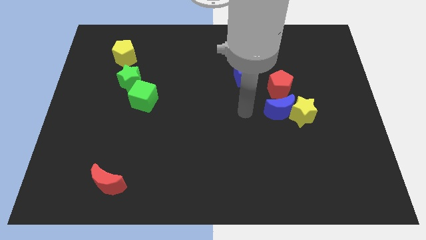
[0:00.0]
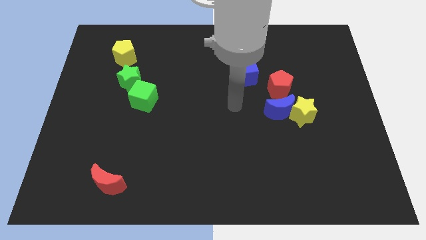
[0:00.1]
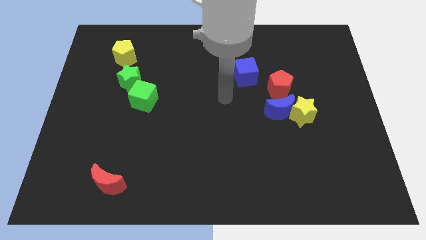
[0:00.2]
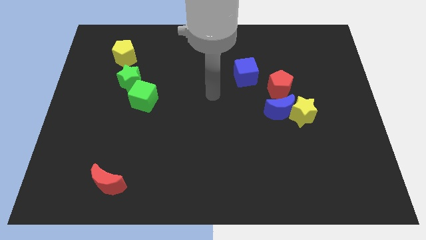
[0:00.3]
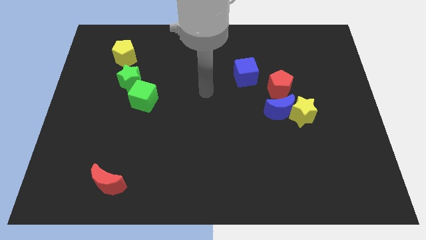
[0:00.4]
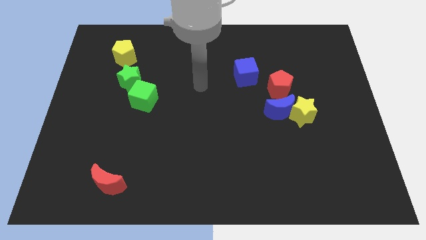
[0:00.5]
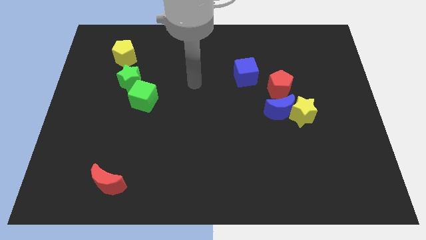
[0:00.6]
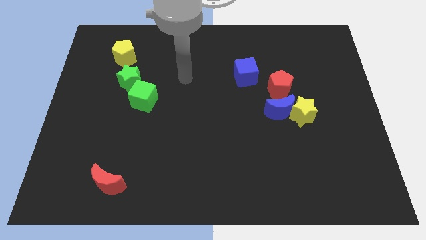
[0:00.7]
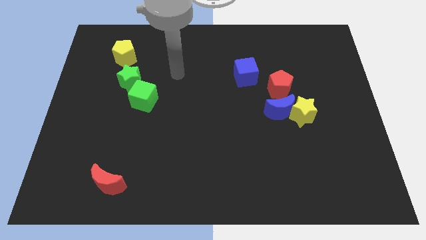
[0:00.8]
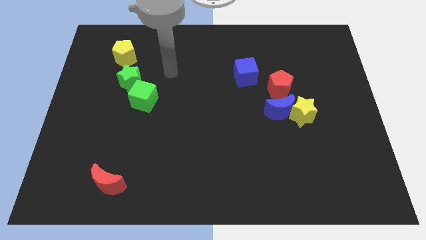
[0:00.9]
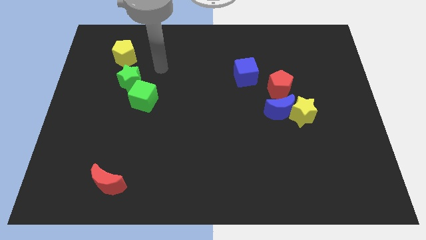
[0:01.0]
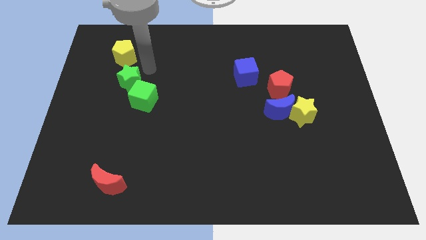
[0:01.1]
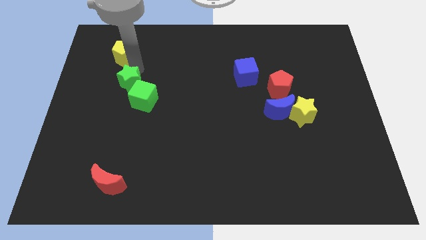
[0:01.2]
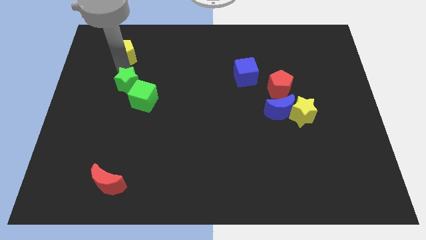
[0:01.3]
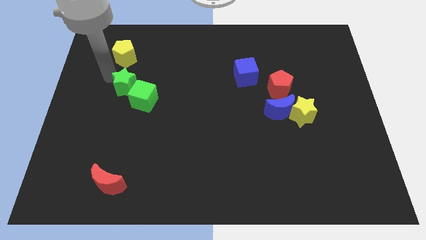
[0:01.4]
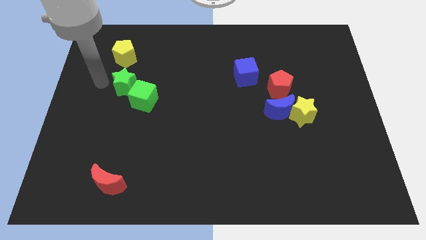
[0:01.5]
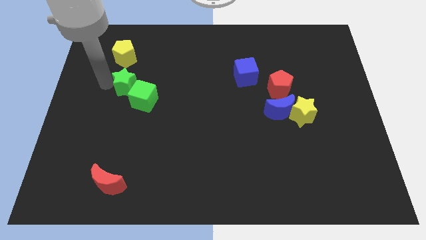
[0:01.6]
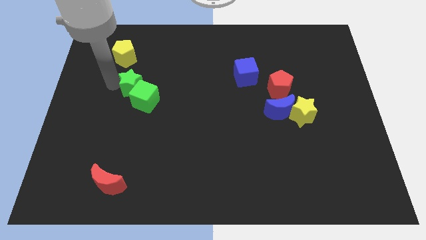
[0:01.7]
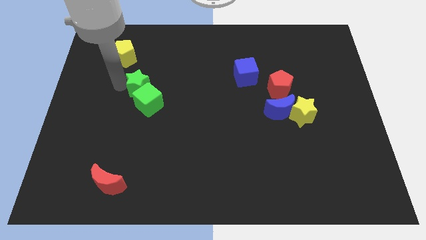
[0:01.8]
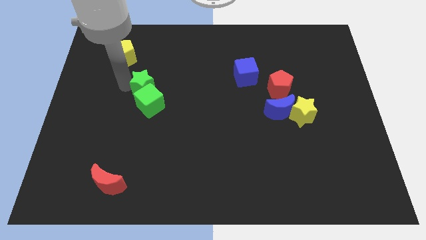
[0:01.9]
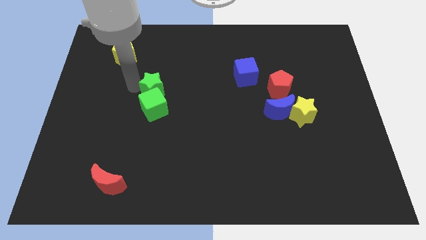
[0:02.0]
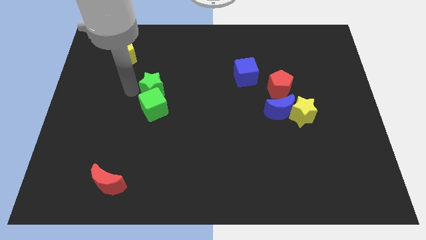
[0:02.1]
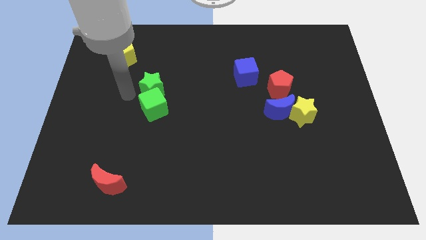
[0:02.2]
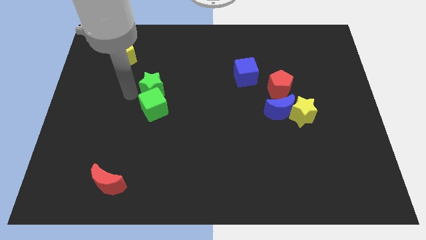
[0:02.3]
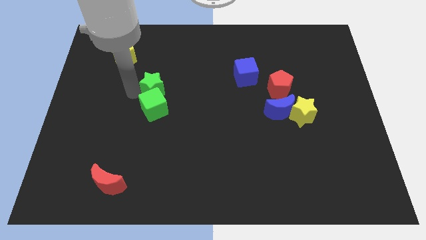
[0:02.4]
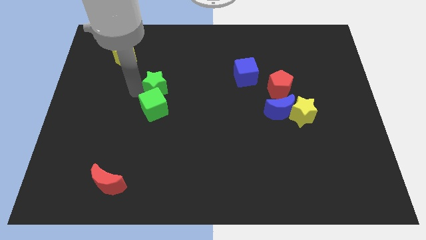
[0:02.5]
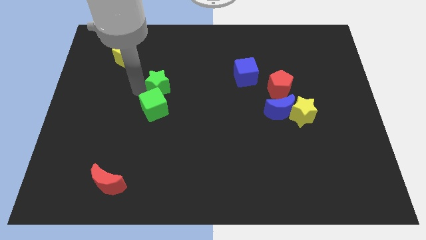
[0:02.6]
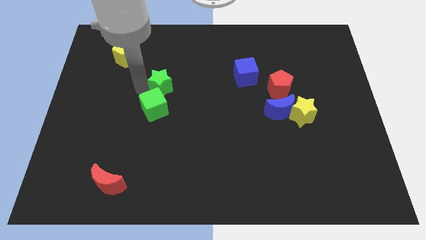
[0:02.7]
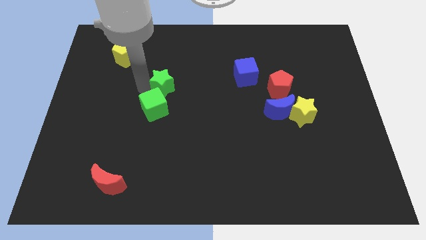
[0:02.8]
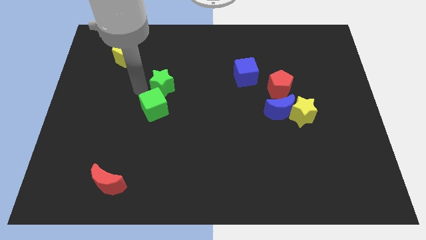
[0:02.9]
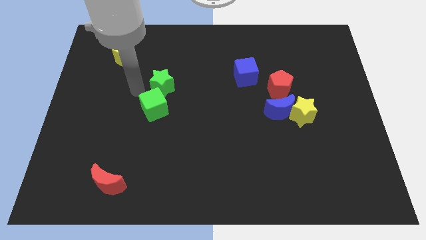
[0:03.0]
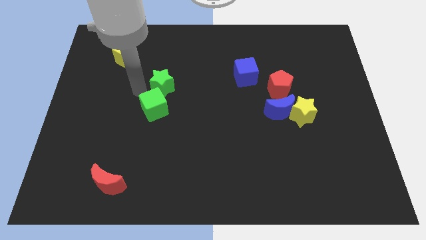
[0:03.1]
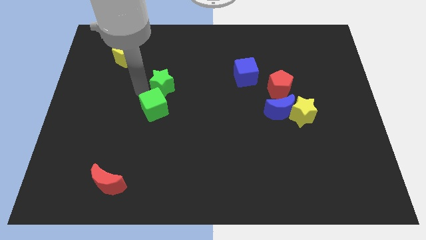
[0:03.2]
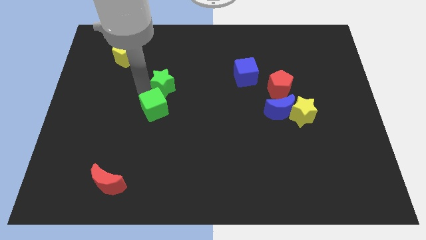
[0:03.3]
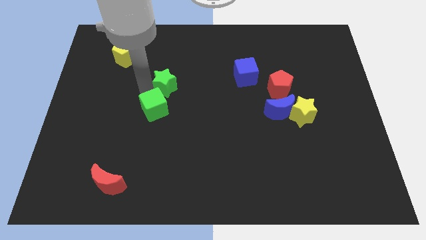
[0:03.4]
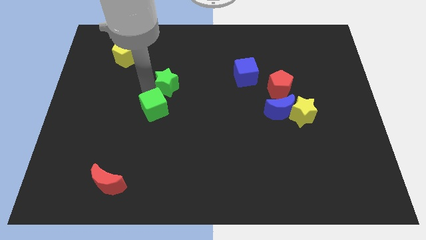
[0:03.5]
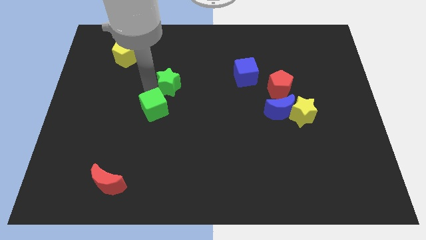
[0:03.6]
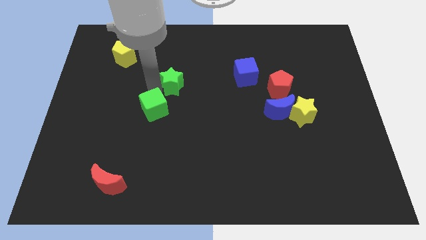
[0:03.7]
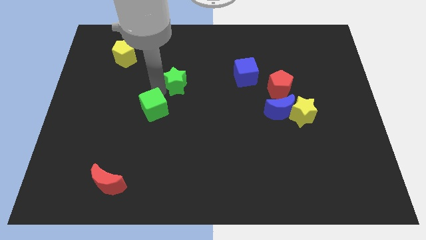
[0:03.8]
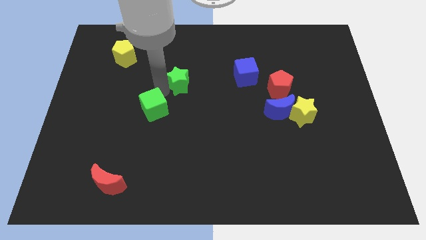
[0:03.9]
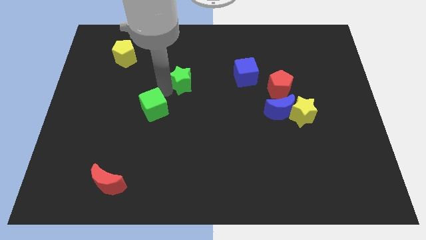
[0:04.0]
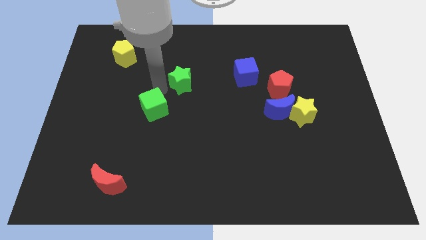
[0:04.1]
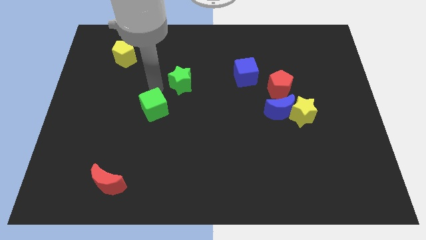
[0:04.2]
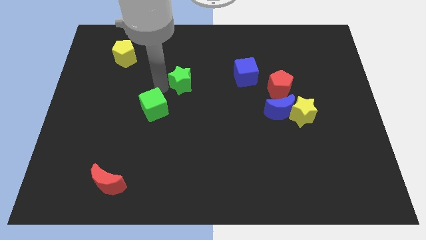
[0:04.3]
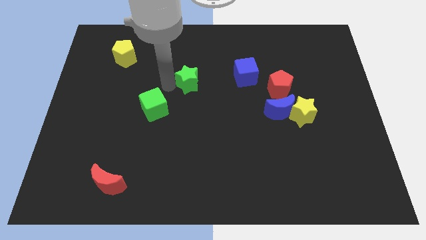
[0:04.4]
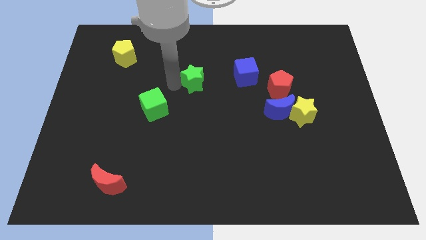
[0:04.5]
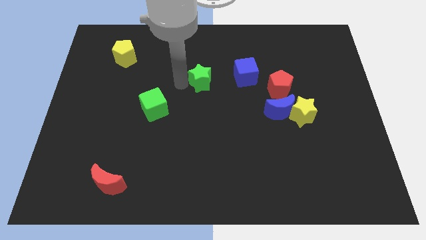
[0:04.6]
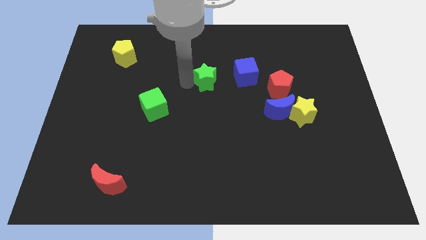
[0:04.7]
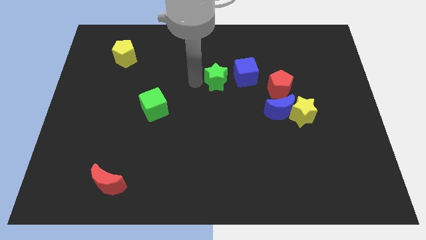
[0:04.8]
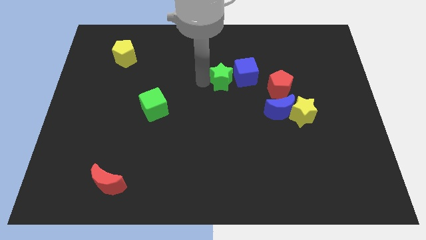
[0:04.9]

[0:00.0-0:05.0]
move the green star close to the blue cube

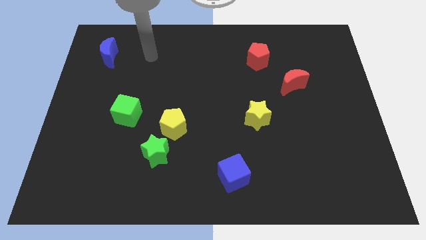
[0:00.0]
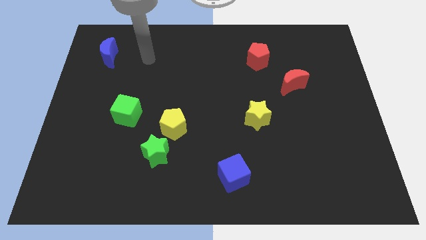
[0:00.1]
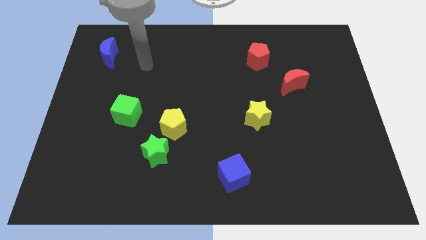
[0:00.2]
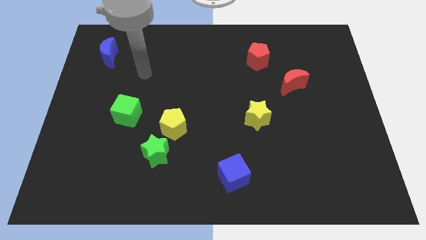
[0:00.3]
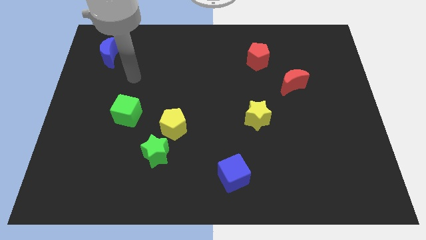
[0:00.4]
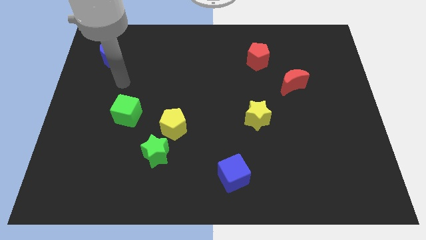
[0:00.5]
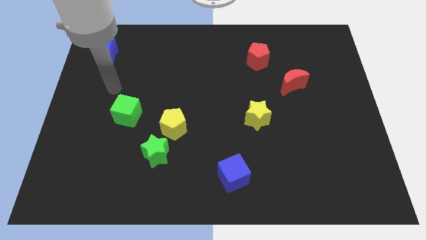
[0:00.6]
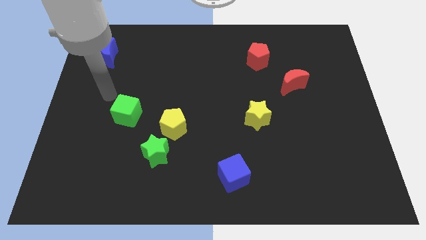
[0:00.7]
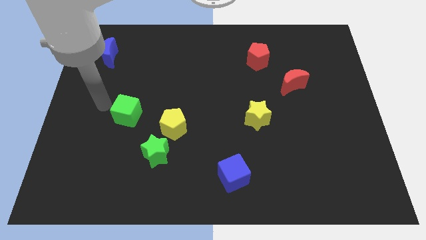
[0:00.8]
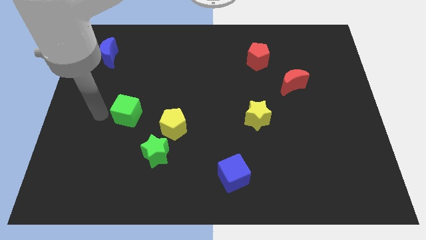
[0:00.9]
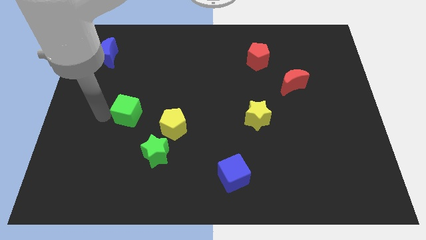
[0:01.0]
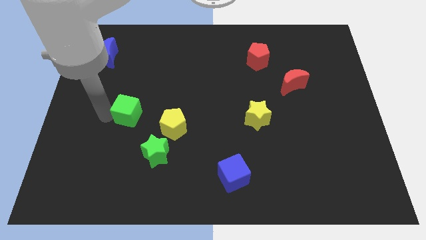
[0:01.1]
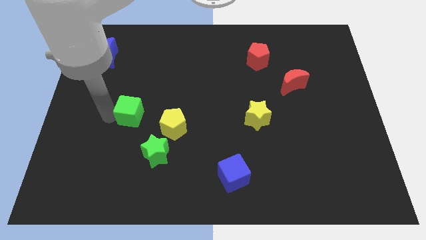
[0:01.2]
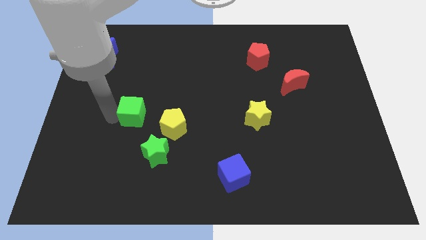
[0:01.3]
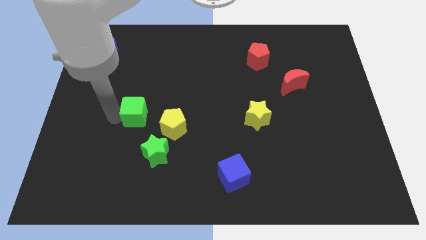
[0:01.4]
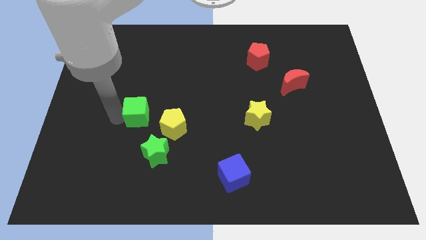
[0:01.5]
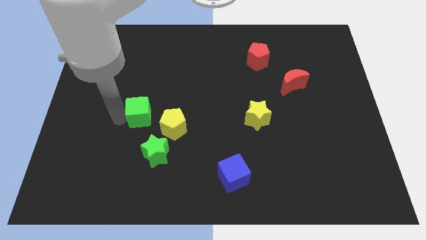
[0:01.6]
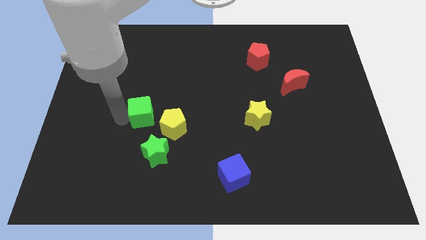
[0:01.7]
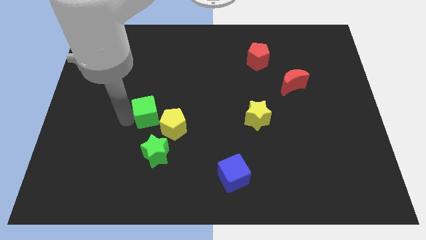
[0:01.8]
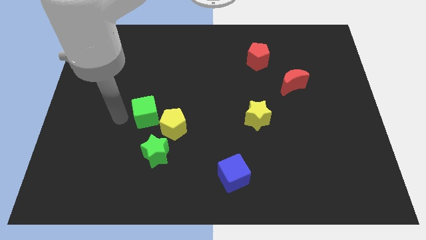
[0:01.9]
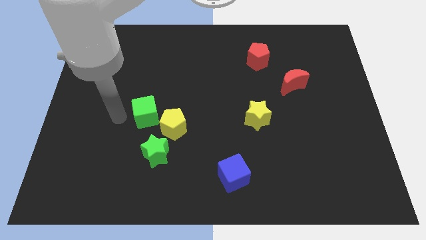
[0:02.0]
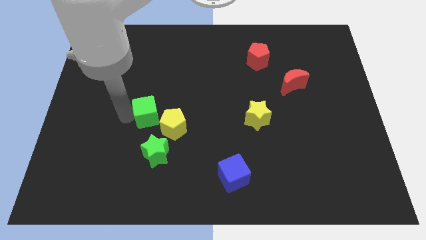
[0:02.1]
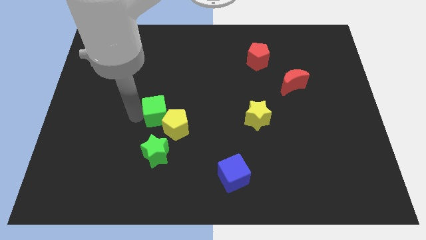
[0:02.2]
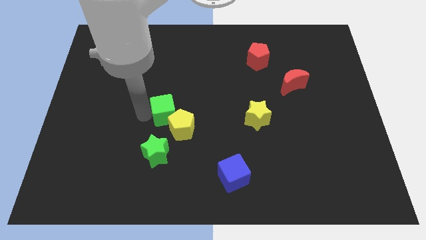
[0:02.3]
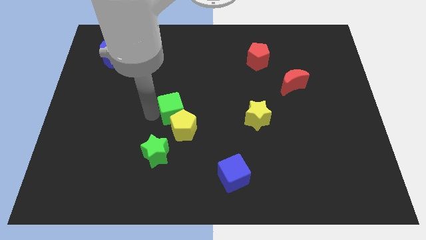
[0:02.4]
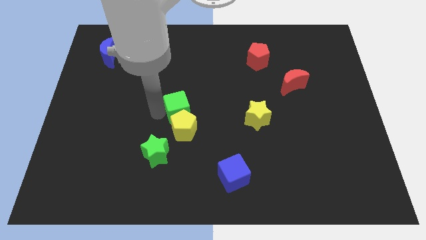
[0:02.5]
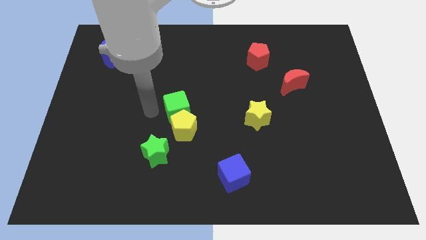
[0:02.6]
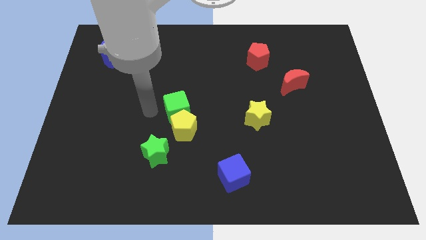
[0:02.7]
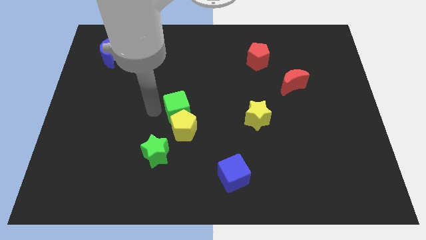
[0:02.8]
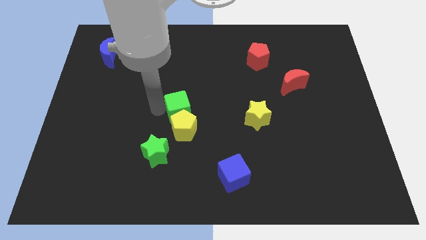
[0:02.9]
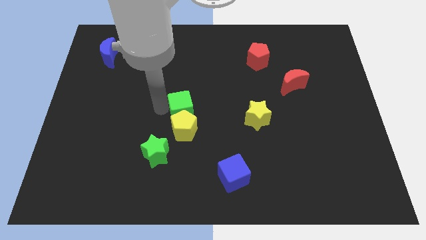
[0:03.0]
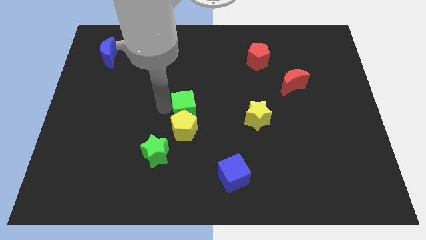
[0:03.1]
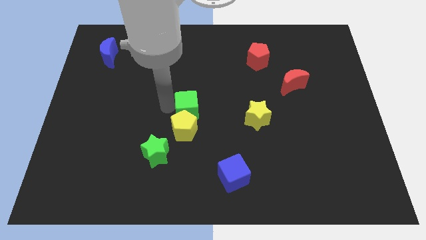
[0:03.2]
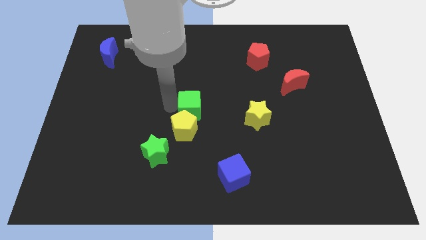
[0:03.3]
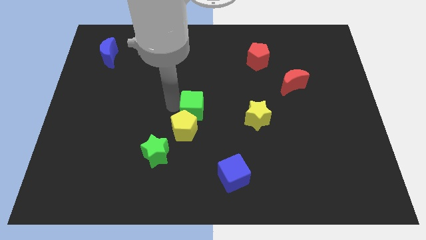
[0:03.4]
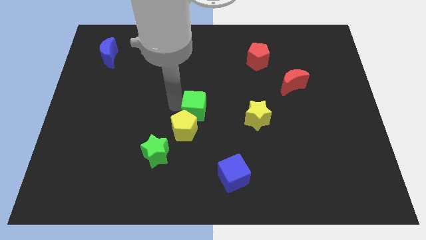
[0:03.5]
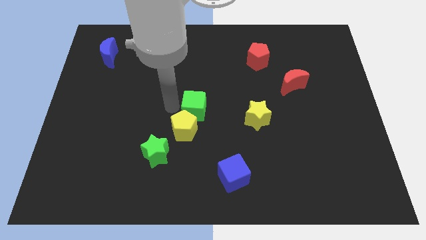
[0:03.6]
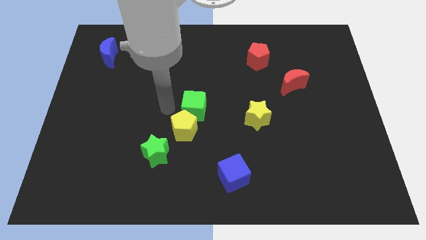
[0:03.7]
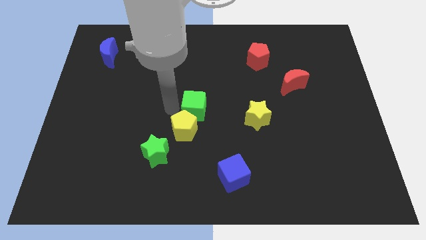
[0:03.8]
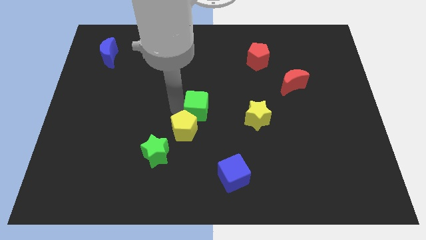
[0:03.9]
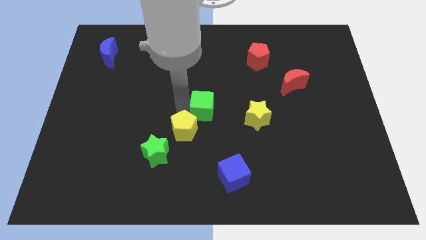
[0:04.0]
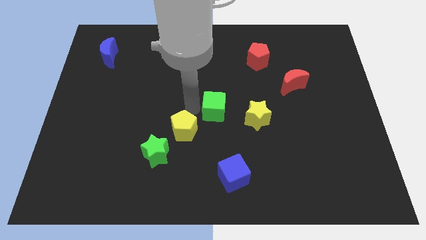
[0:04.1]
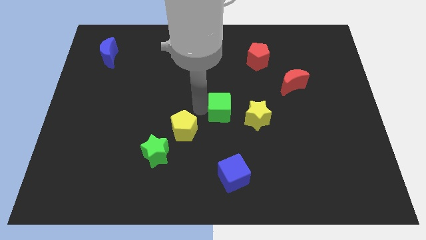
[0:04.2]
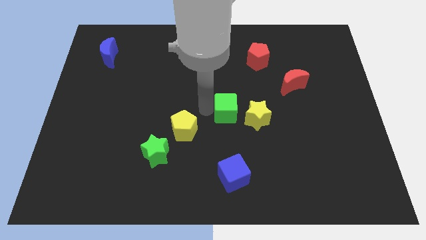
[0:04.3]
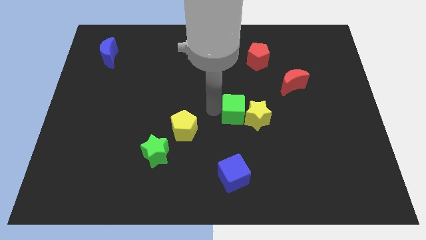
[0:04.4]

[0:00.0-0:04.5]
slide the green cube close to the yellow star
